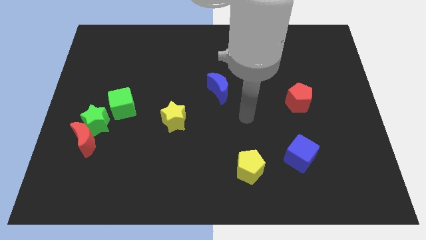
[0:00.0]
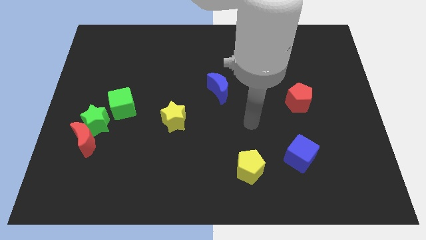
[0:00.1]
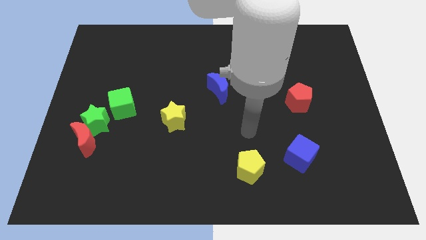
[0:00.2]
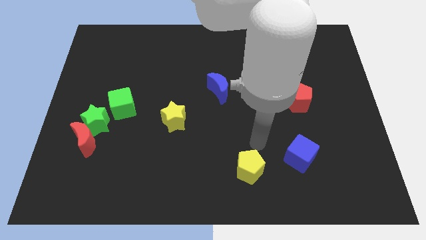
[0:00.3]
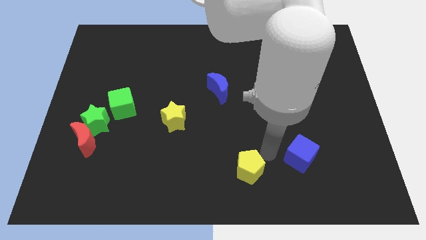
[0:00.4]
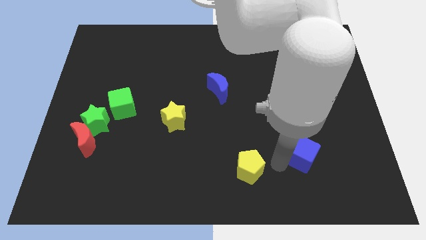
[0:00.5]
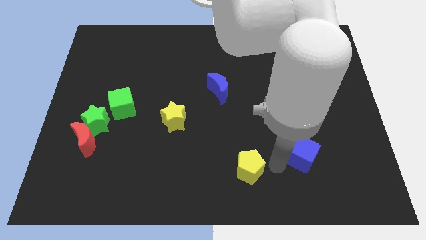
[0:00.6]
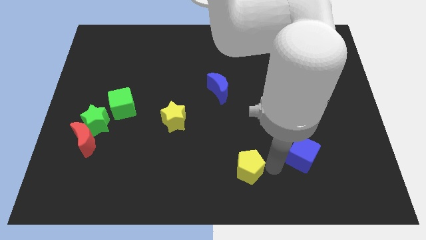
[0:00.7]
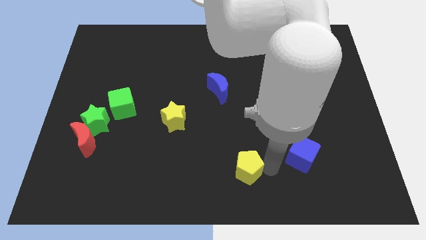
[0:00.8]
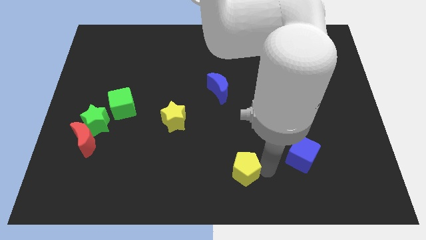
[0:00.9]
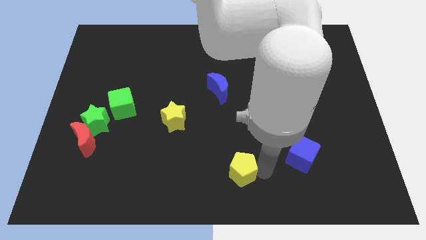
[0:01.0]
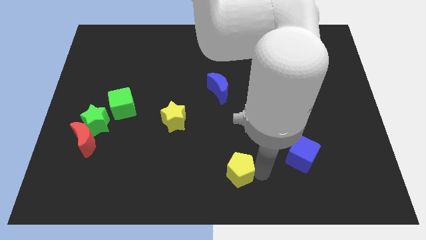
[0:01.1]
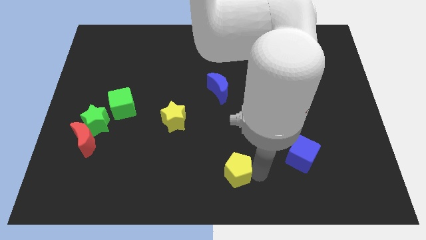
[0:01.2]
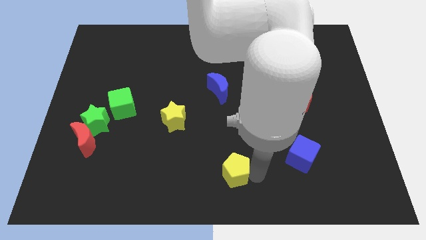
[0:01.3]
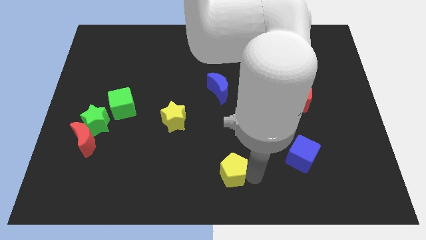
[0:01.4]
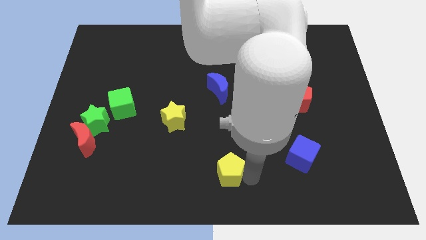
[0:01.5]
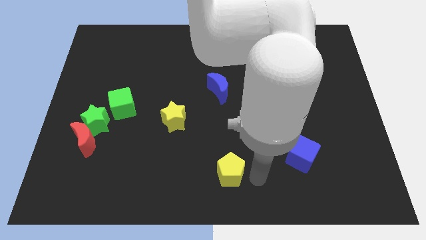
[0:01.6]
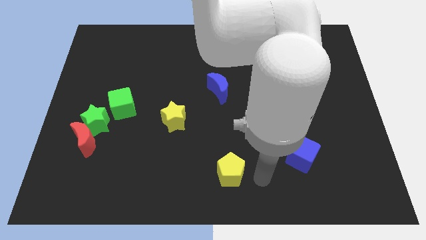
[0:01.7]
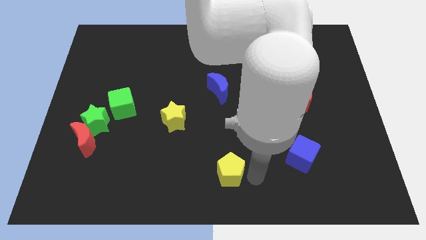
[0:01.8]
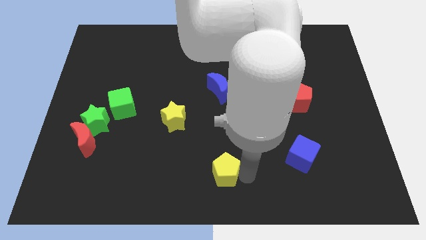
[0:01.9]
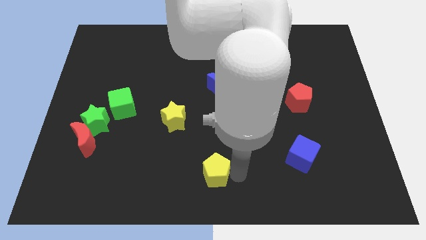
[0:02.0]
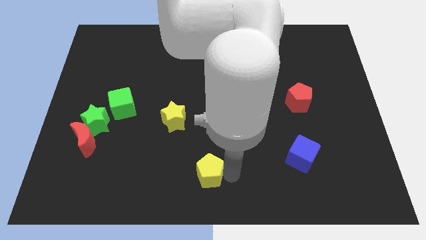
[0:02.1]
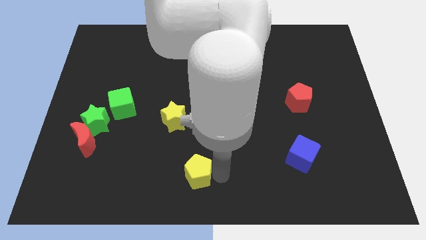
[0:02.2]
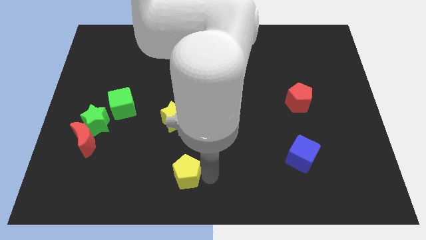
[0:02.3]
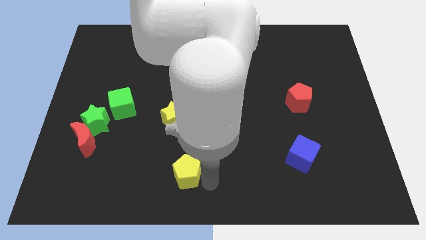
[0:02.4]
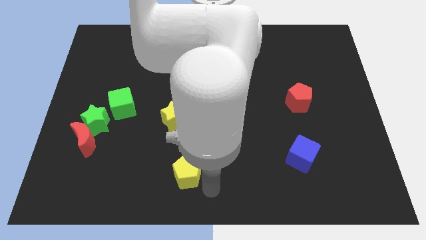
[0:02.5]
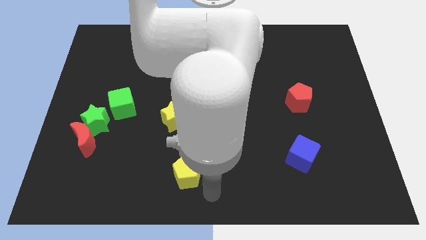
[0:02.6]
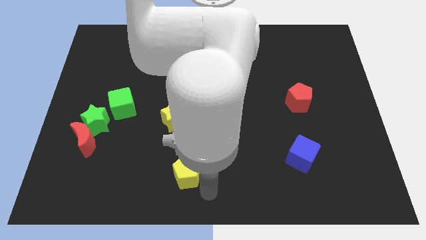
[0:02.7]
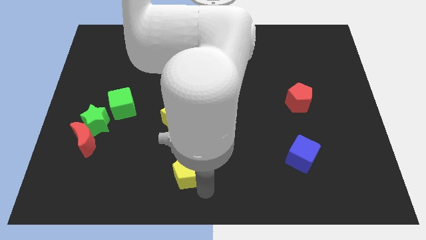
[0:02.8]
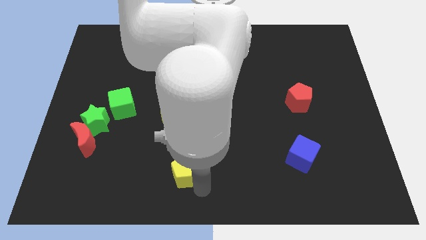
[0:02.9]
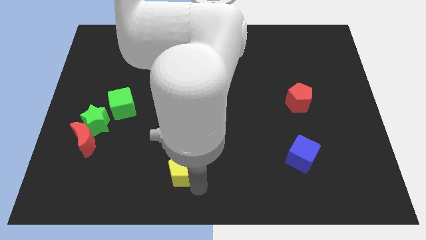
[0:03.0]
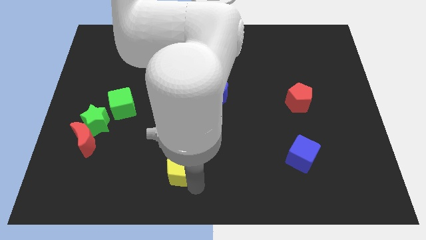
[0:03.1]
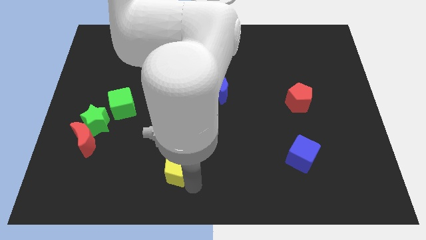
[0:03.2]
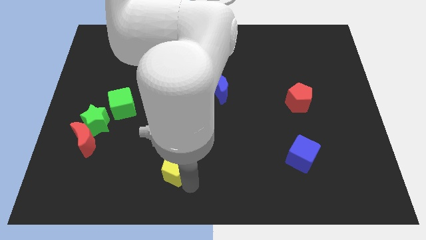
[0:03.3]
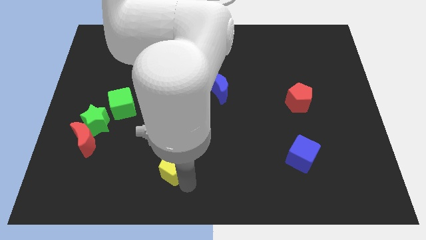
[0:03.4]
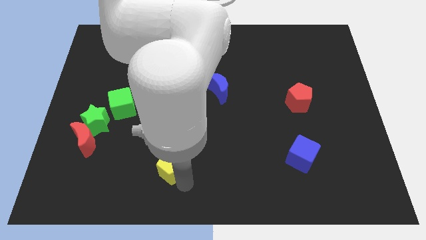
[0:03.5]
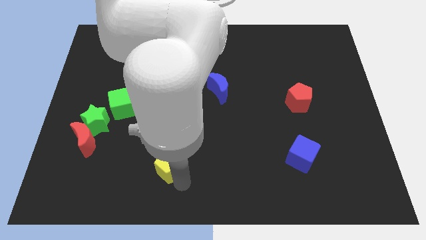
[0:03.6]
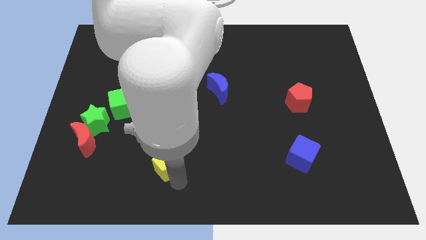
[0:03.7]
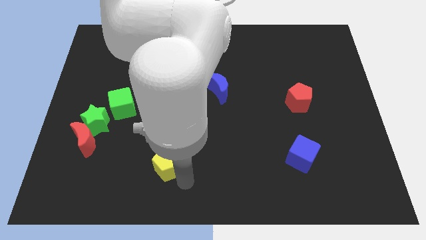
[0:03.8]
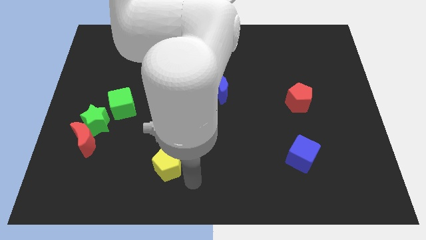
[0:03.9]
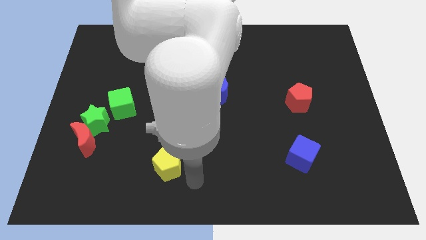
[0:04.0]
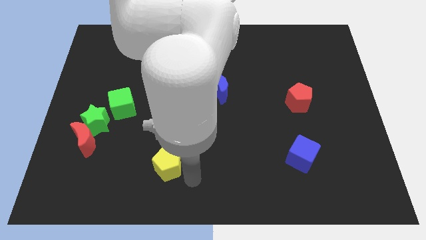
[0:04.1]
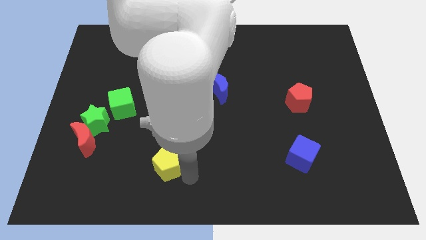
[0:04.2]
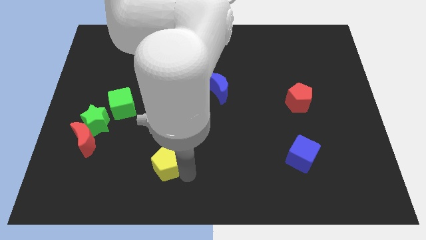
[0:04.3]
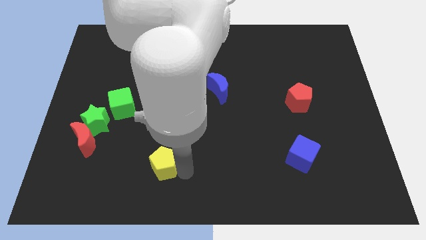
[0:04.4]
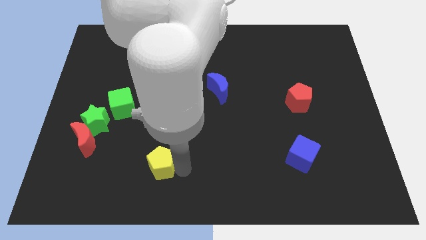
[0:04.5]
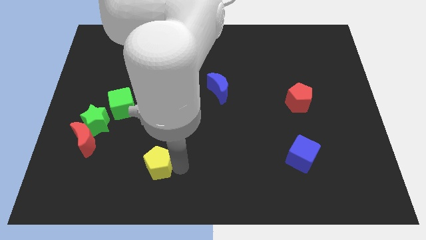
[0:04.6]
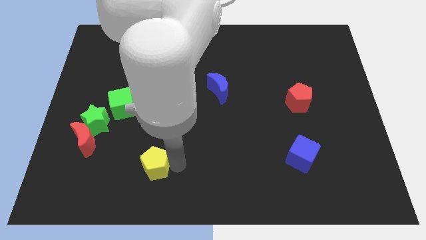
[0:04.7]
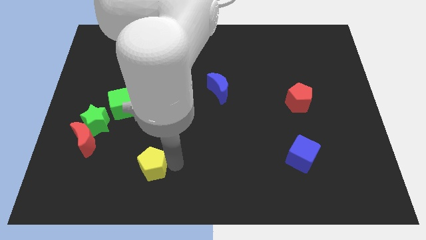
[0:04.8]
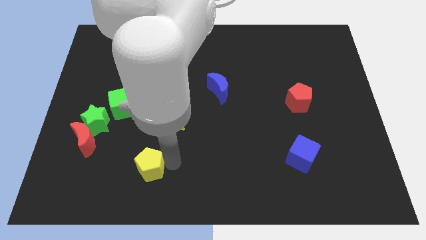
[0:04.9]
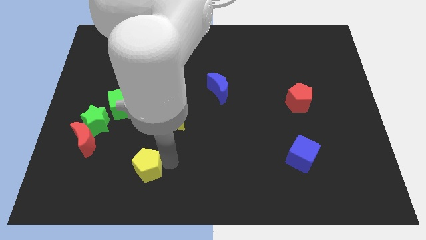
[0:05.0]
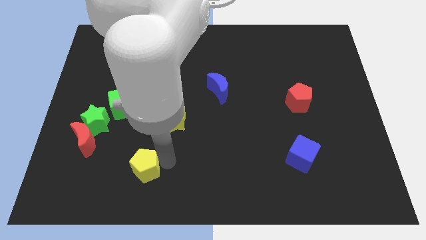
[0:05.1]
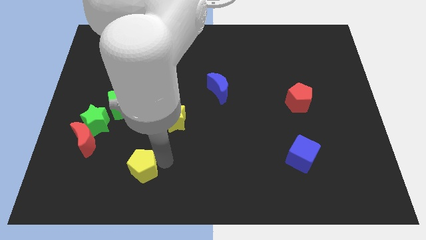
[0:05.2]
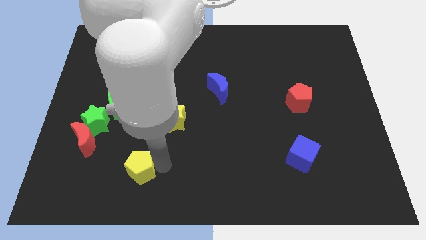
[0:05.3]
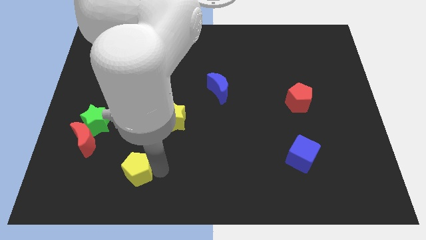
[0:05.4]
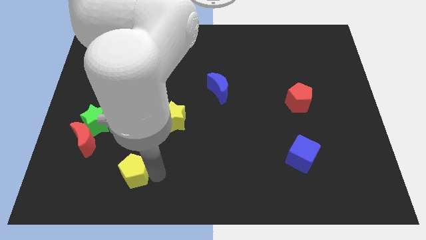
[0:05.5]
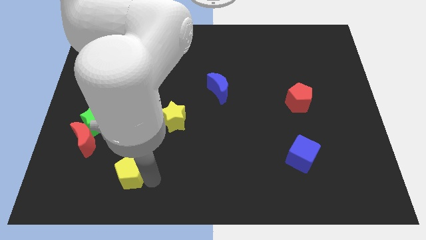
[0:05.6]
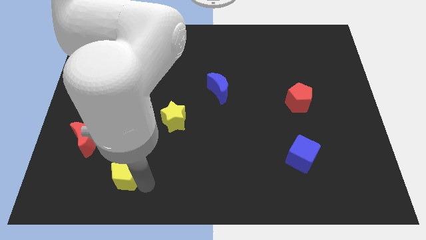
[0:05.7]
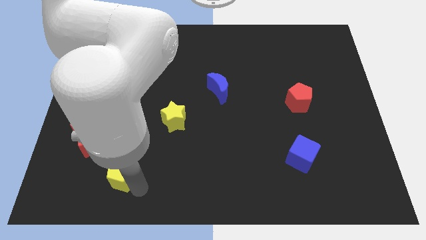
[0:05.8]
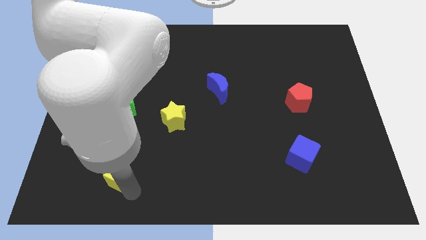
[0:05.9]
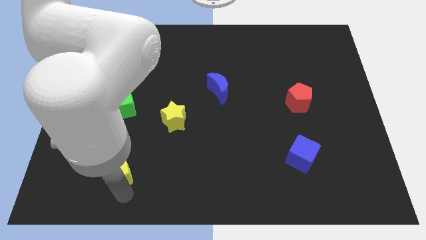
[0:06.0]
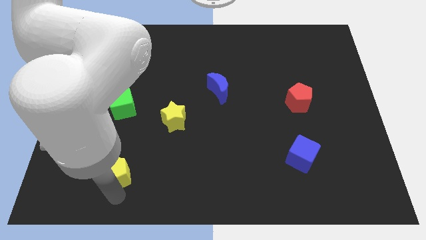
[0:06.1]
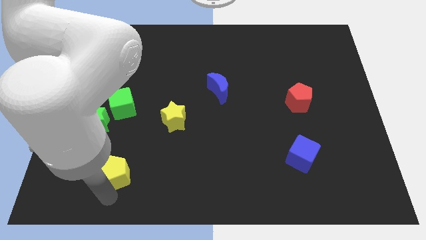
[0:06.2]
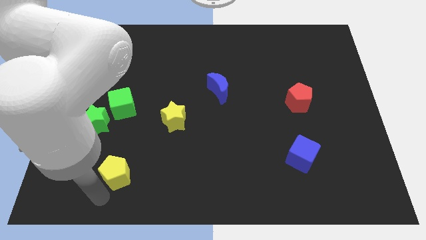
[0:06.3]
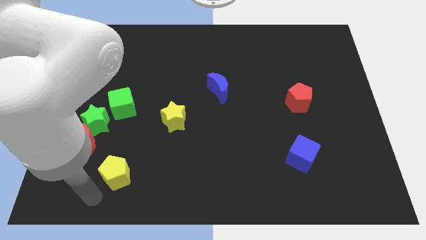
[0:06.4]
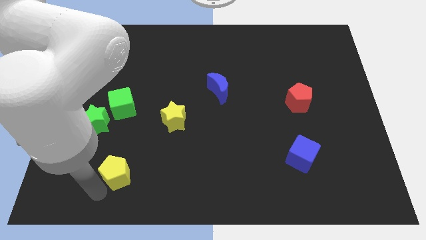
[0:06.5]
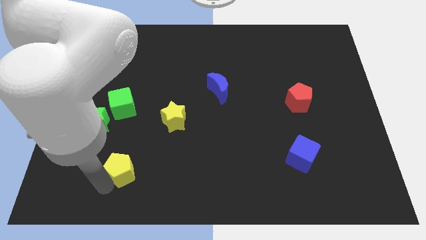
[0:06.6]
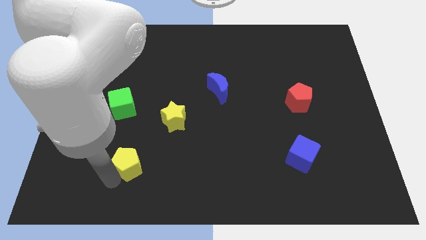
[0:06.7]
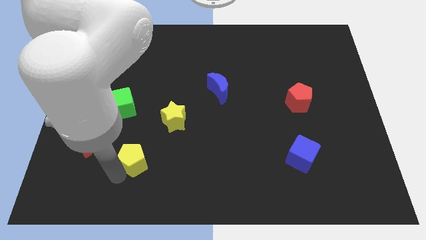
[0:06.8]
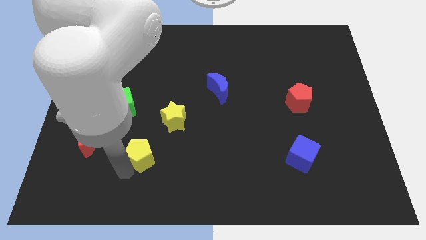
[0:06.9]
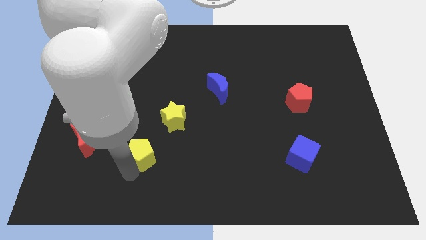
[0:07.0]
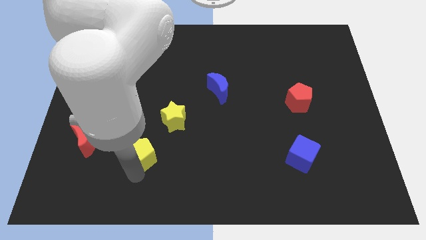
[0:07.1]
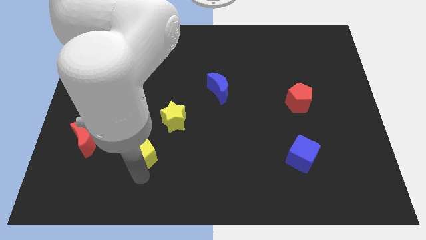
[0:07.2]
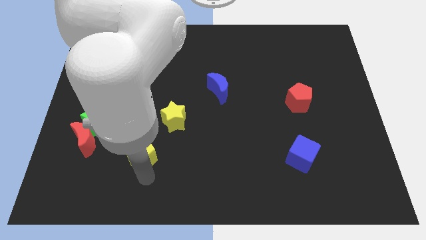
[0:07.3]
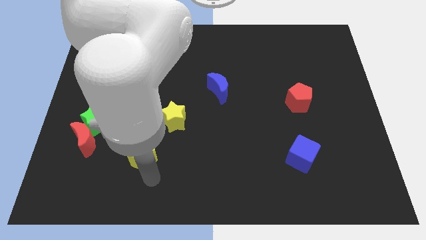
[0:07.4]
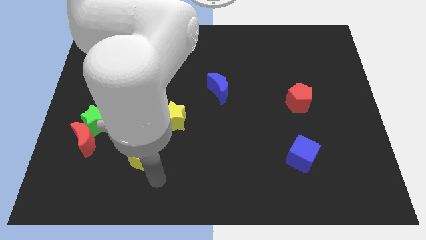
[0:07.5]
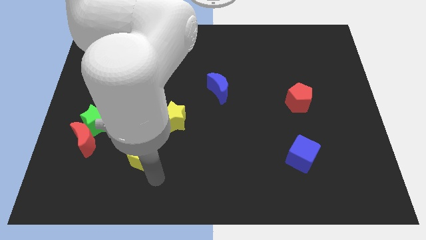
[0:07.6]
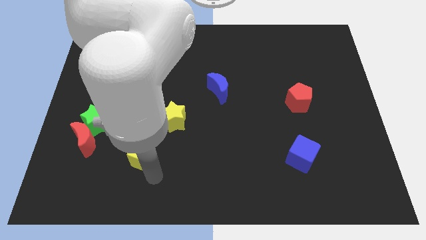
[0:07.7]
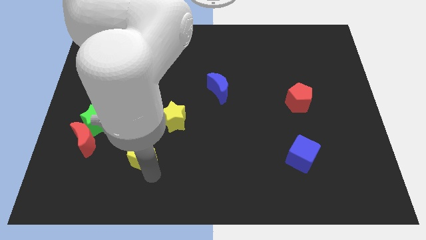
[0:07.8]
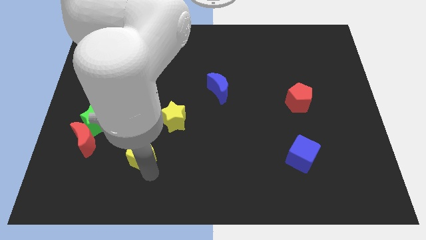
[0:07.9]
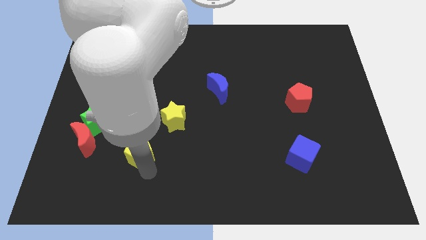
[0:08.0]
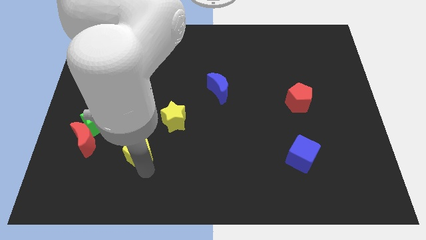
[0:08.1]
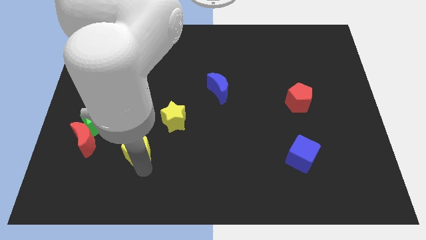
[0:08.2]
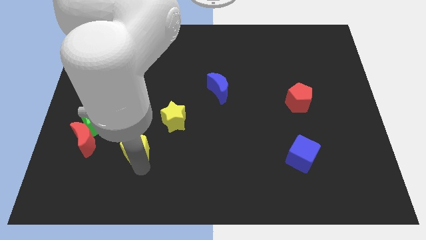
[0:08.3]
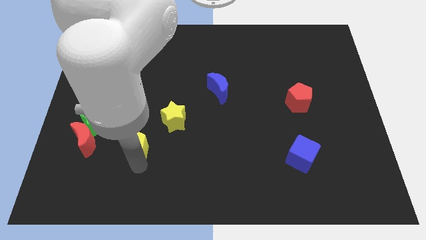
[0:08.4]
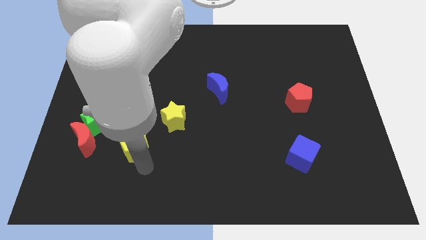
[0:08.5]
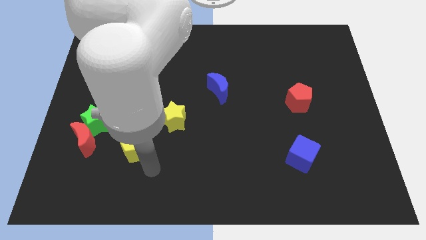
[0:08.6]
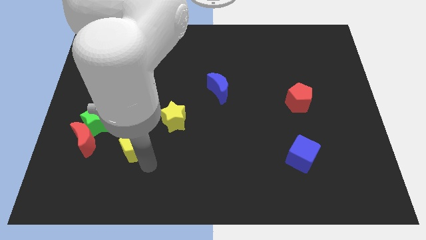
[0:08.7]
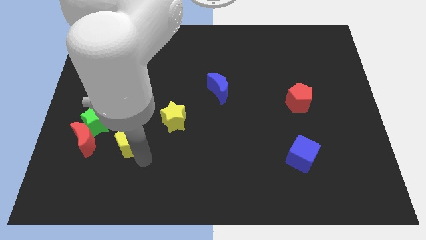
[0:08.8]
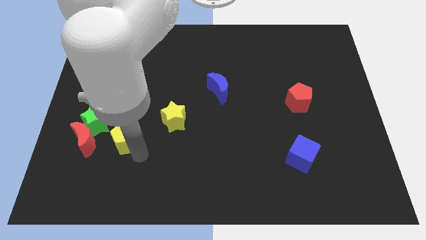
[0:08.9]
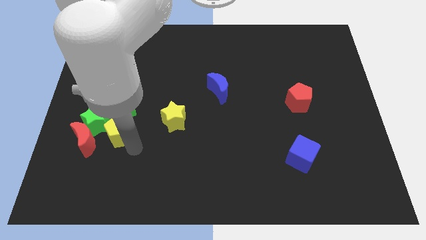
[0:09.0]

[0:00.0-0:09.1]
put the yellow pentagon next to the green star
